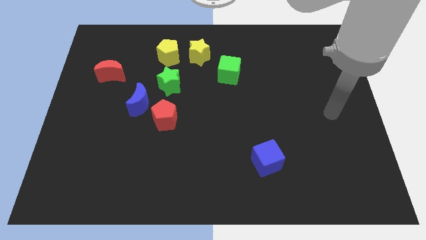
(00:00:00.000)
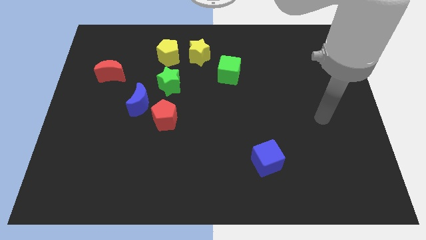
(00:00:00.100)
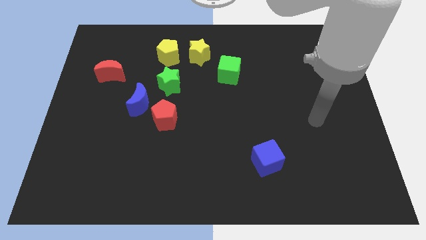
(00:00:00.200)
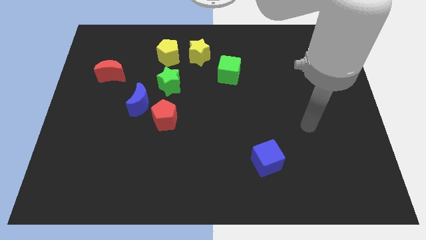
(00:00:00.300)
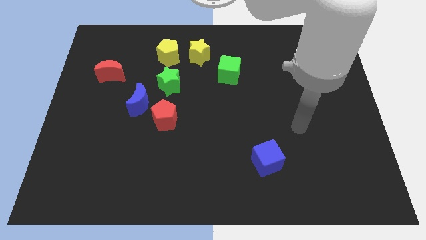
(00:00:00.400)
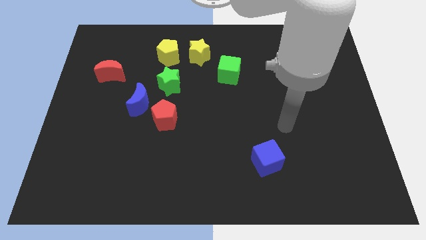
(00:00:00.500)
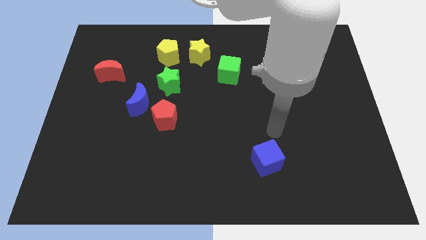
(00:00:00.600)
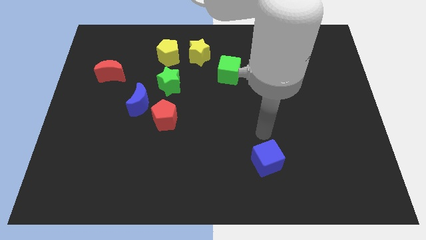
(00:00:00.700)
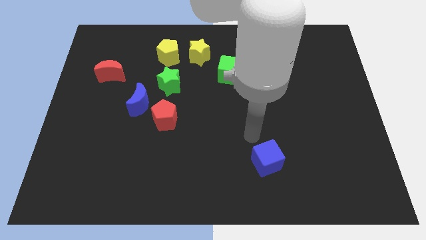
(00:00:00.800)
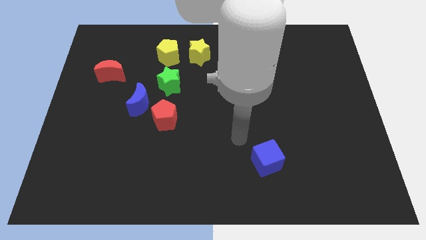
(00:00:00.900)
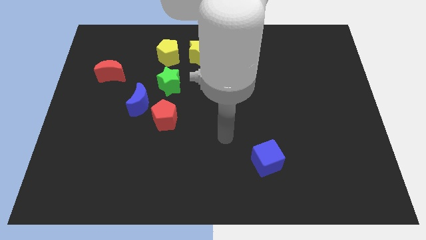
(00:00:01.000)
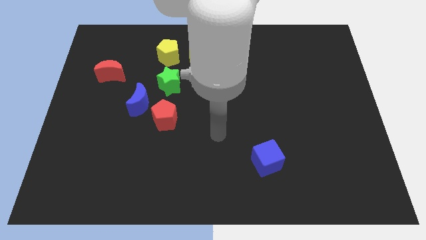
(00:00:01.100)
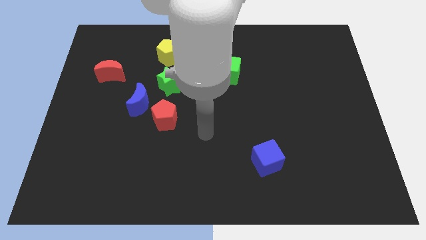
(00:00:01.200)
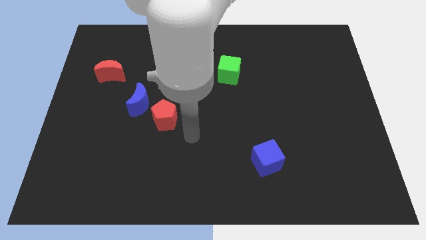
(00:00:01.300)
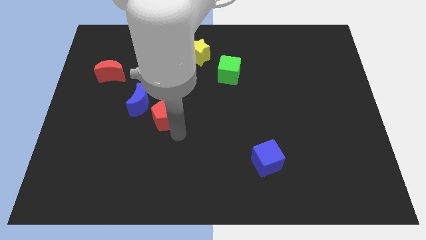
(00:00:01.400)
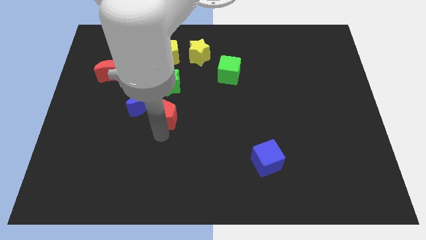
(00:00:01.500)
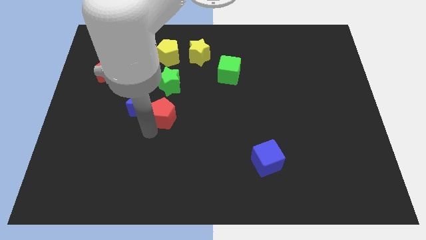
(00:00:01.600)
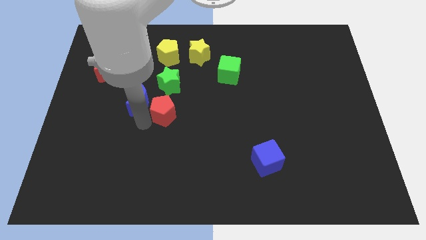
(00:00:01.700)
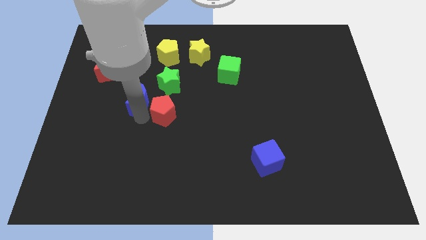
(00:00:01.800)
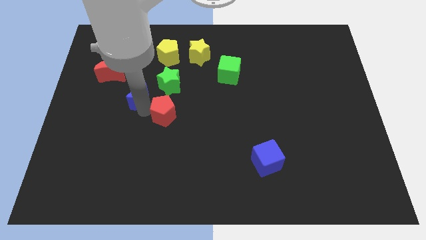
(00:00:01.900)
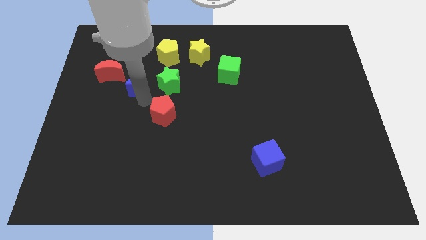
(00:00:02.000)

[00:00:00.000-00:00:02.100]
separate the red pentagon from the blue moon

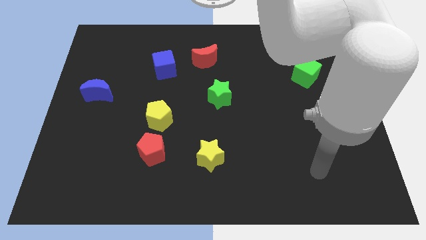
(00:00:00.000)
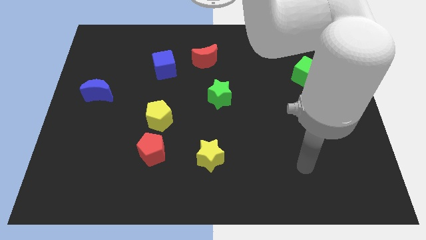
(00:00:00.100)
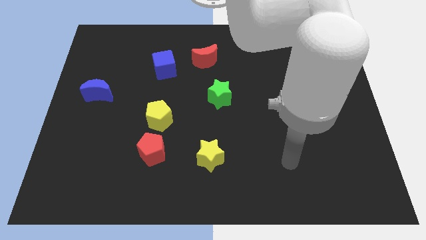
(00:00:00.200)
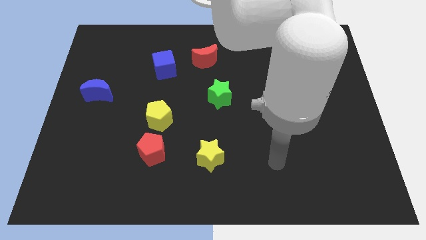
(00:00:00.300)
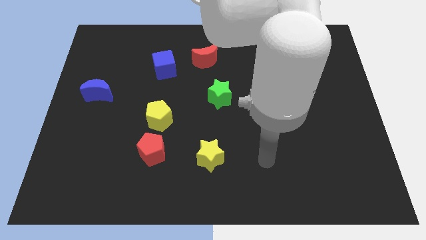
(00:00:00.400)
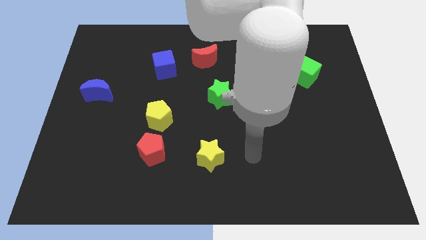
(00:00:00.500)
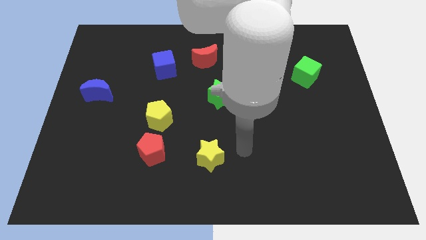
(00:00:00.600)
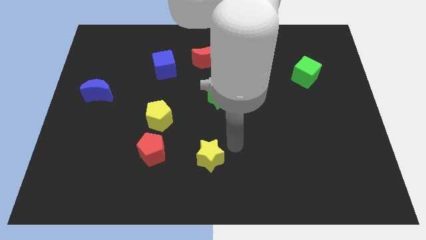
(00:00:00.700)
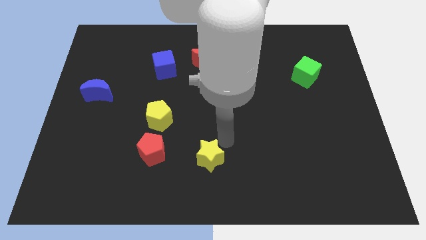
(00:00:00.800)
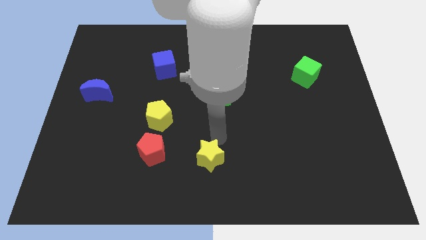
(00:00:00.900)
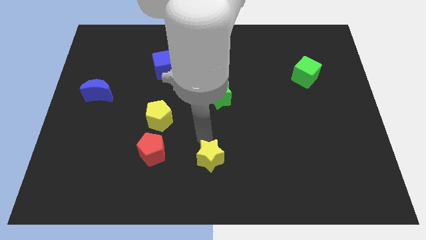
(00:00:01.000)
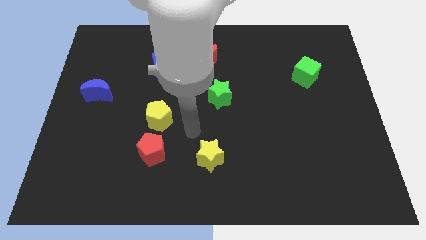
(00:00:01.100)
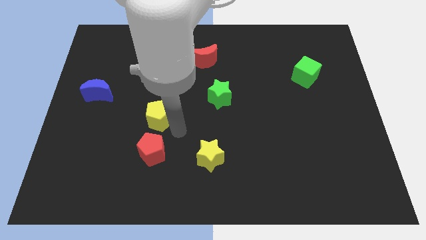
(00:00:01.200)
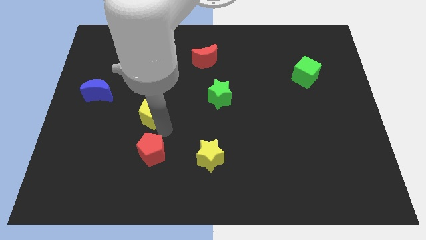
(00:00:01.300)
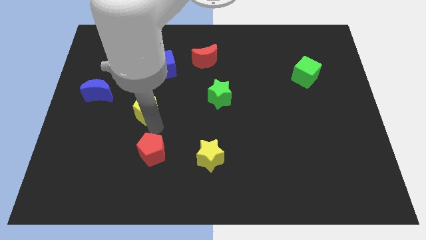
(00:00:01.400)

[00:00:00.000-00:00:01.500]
separate the red pentagon from the yellow pentagon

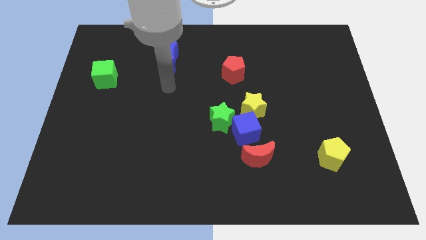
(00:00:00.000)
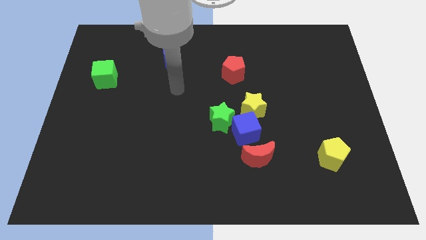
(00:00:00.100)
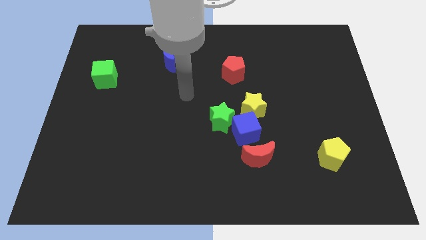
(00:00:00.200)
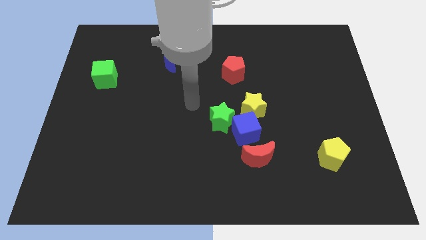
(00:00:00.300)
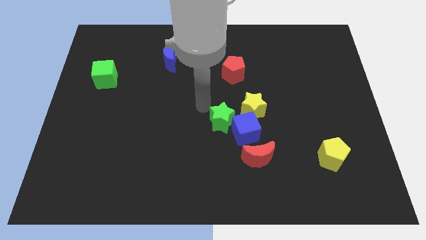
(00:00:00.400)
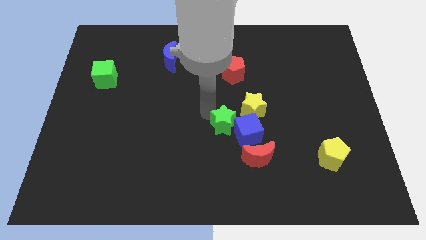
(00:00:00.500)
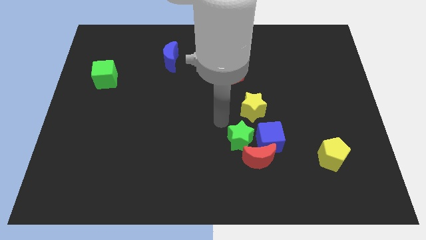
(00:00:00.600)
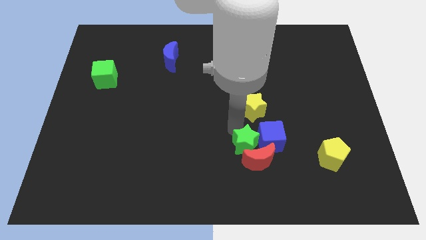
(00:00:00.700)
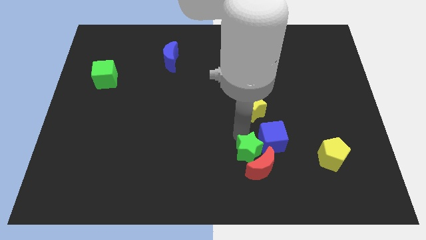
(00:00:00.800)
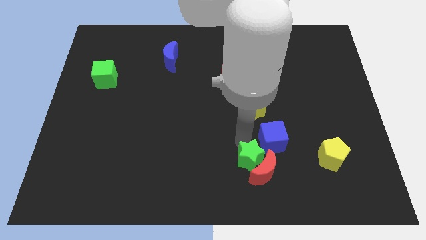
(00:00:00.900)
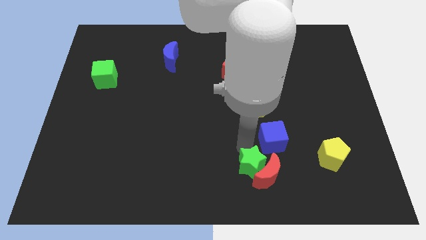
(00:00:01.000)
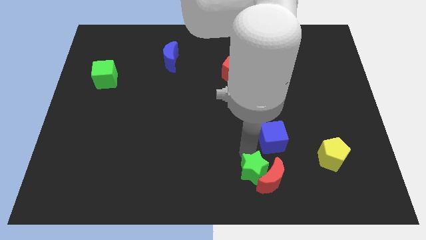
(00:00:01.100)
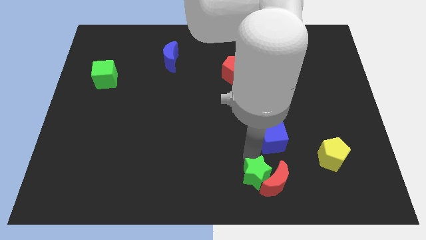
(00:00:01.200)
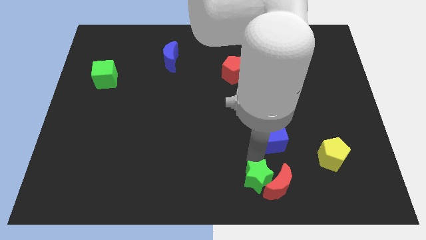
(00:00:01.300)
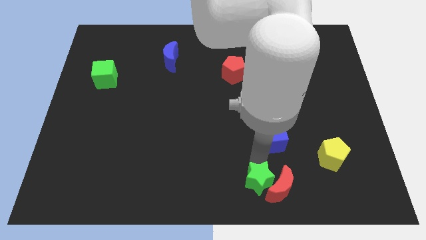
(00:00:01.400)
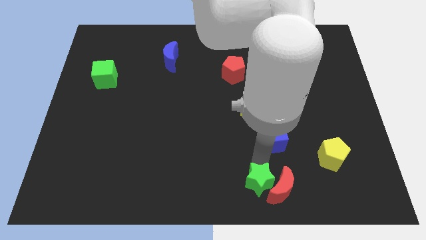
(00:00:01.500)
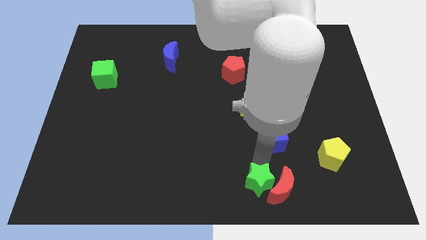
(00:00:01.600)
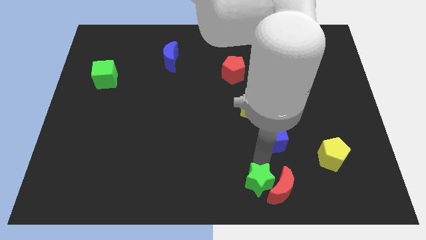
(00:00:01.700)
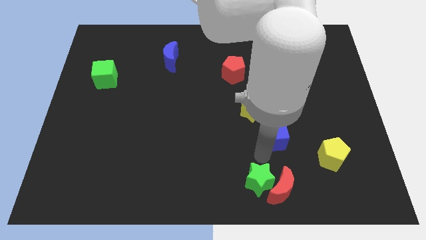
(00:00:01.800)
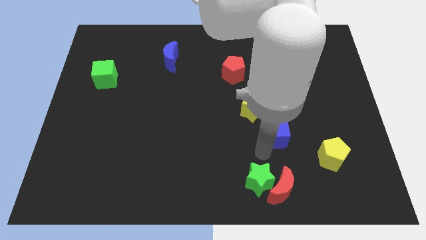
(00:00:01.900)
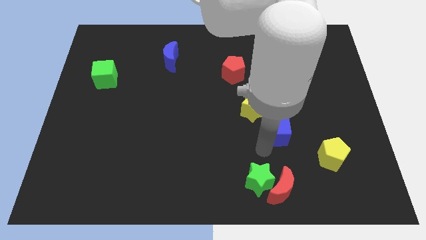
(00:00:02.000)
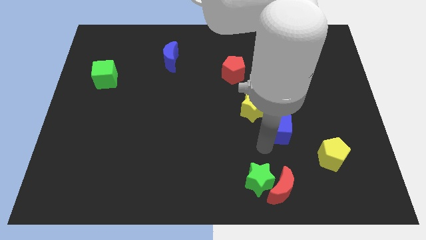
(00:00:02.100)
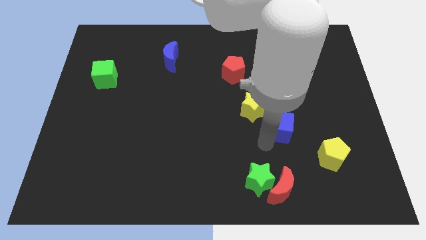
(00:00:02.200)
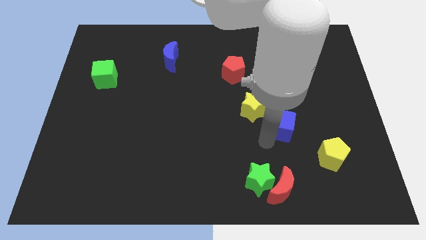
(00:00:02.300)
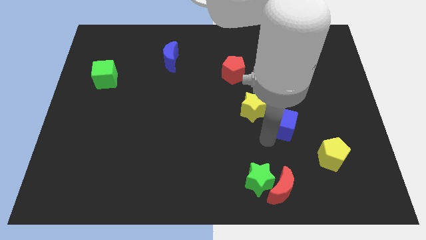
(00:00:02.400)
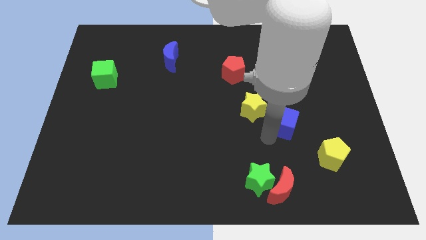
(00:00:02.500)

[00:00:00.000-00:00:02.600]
move the blue cube away from the clump

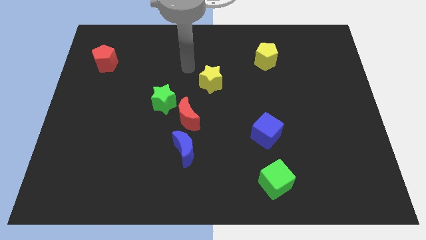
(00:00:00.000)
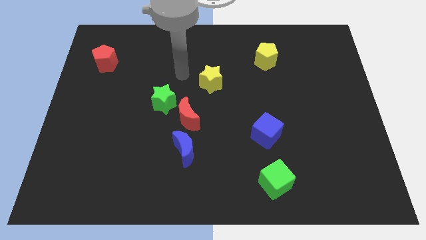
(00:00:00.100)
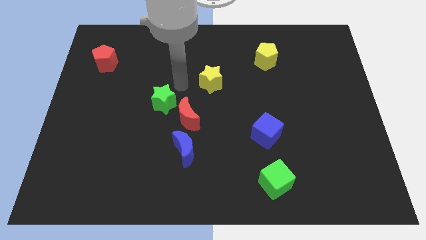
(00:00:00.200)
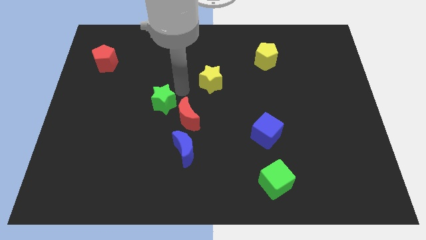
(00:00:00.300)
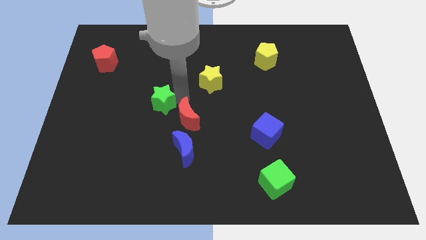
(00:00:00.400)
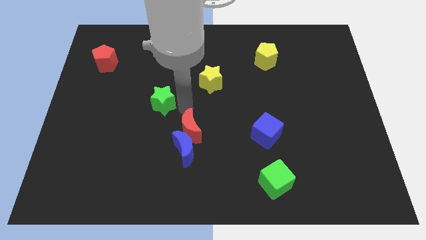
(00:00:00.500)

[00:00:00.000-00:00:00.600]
separate the green star from the red moon

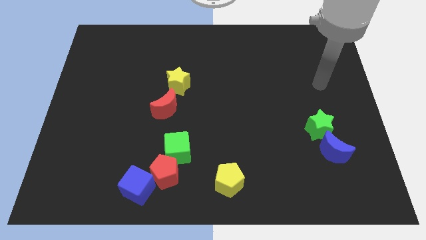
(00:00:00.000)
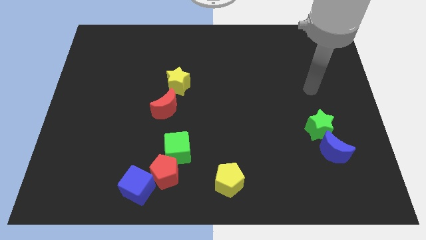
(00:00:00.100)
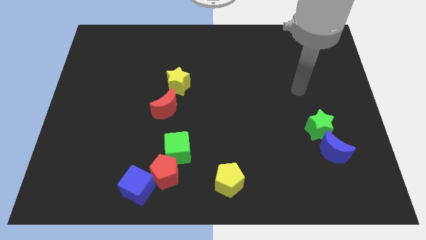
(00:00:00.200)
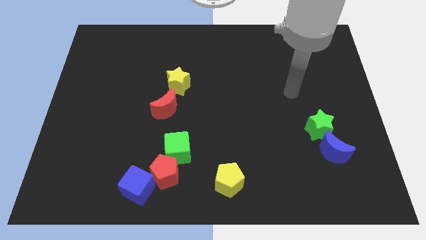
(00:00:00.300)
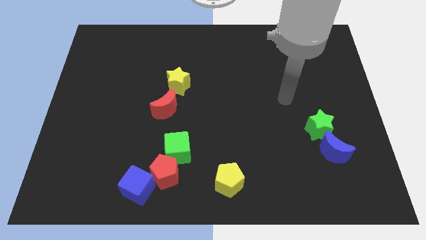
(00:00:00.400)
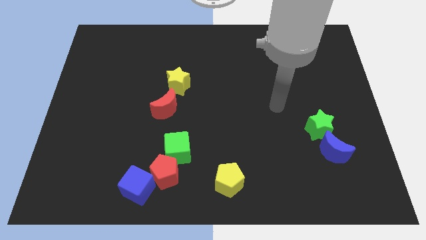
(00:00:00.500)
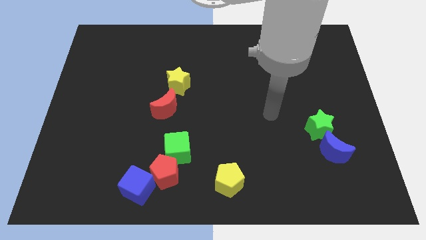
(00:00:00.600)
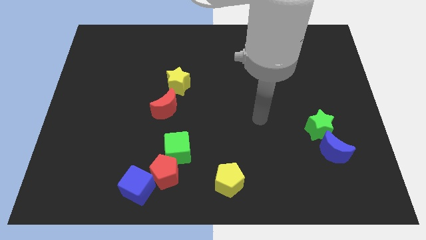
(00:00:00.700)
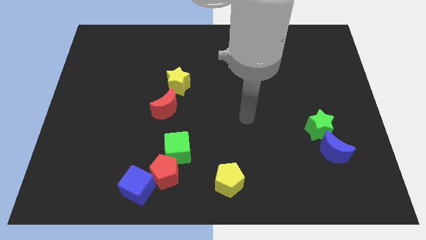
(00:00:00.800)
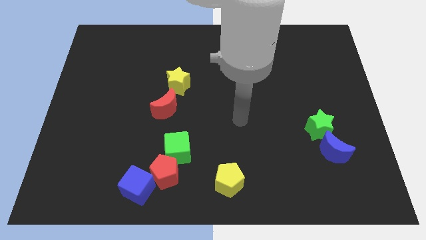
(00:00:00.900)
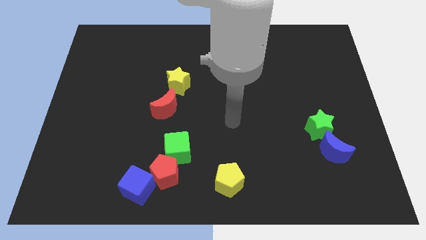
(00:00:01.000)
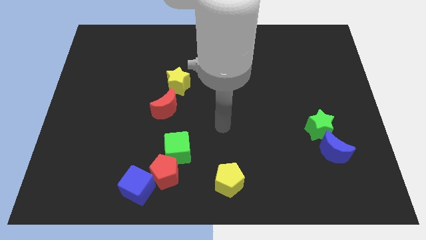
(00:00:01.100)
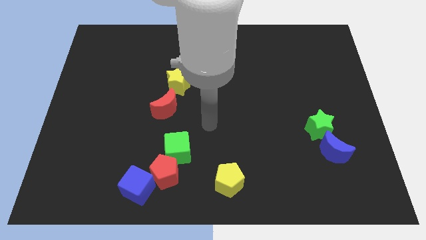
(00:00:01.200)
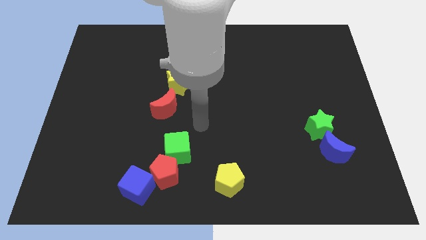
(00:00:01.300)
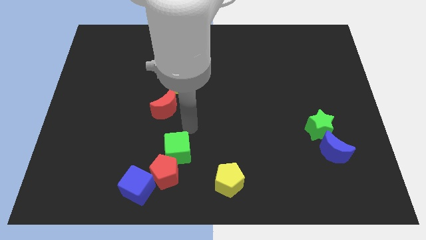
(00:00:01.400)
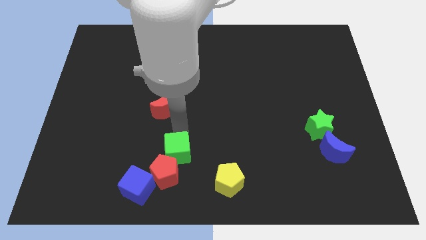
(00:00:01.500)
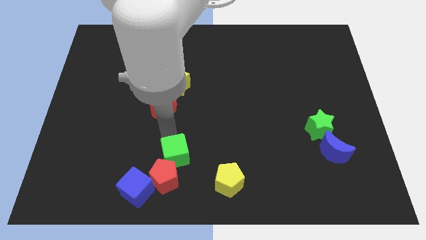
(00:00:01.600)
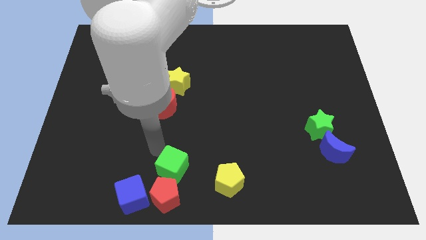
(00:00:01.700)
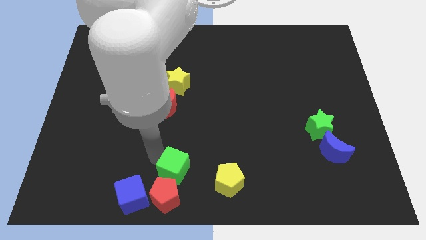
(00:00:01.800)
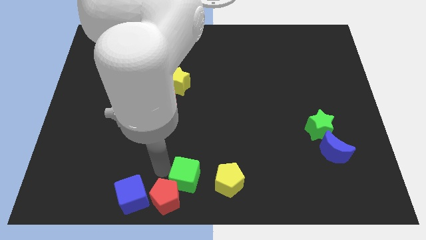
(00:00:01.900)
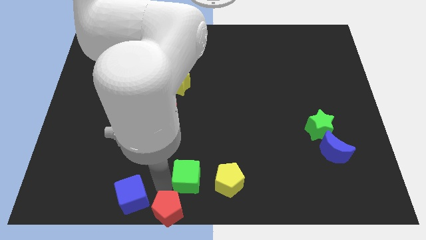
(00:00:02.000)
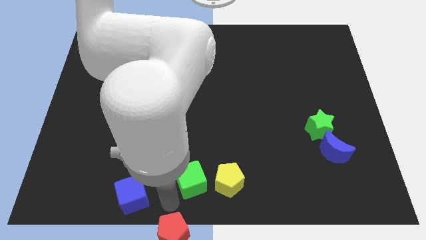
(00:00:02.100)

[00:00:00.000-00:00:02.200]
pull the green cube apart from the red pentagon

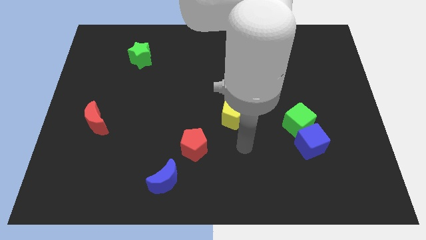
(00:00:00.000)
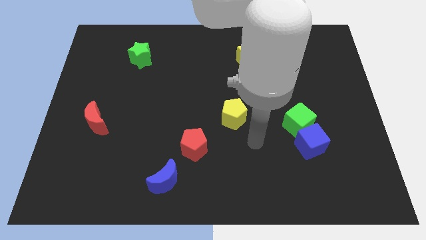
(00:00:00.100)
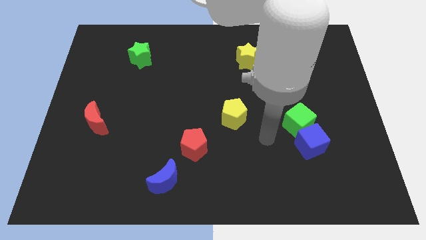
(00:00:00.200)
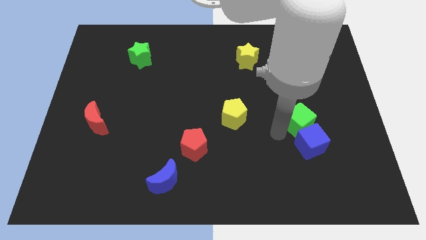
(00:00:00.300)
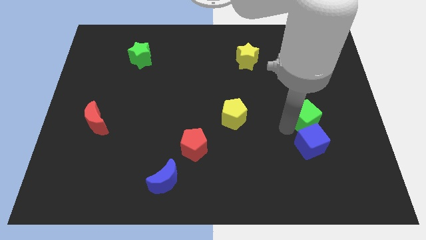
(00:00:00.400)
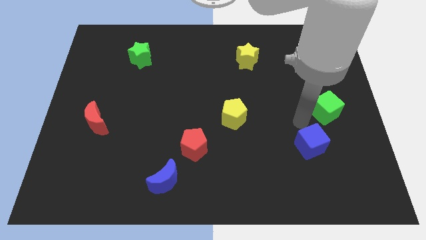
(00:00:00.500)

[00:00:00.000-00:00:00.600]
separate the blue cube from the green cube
